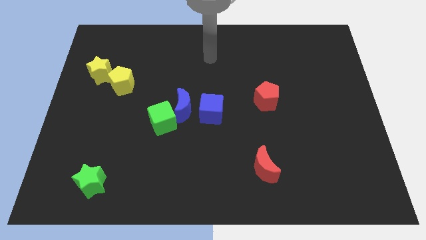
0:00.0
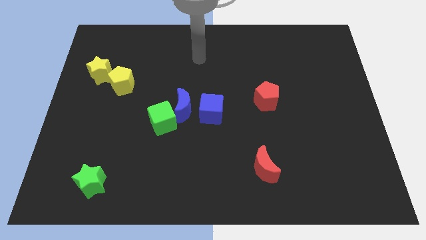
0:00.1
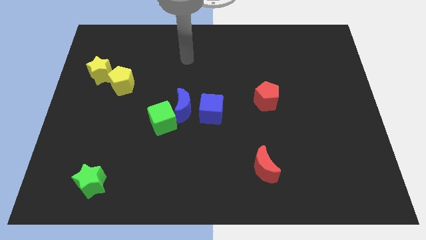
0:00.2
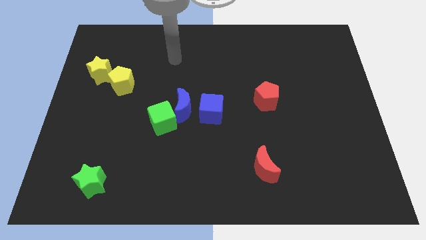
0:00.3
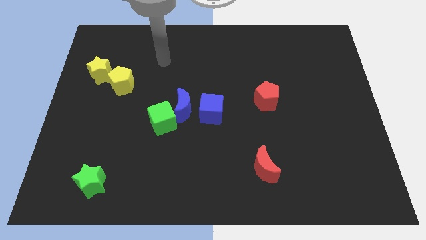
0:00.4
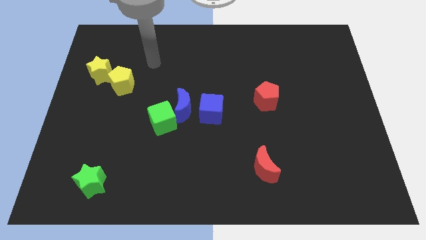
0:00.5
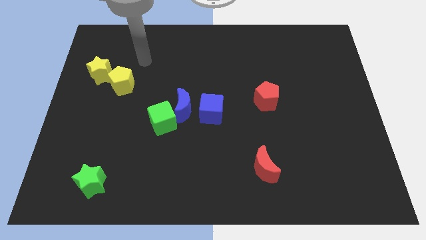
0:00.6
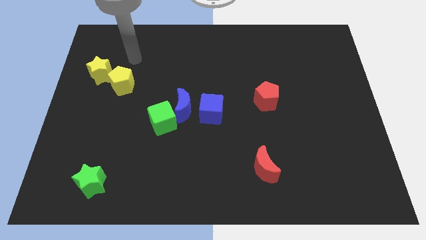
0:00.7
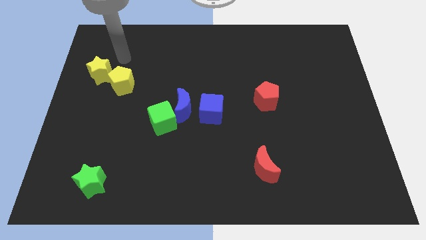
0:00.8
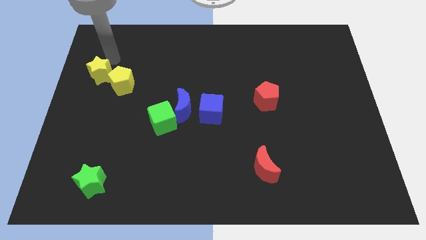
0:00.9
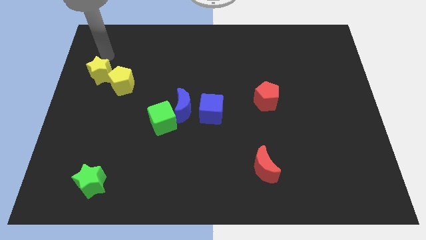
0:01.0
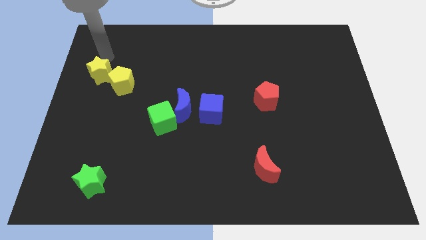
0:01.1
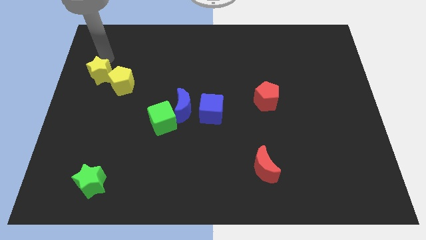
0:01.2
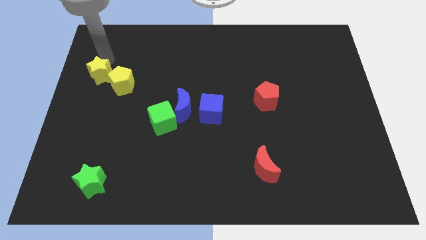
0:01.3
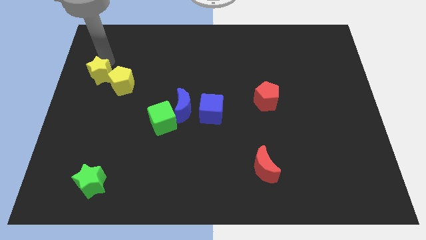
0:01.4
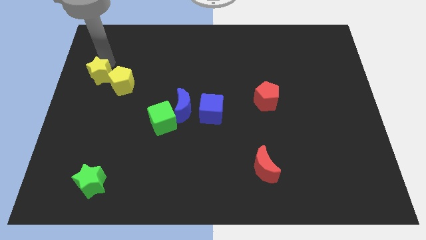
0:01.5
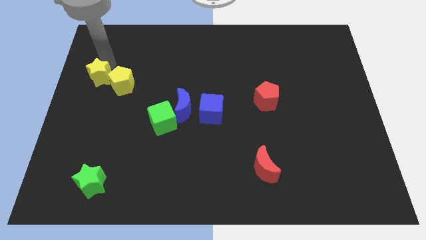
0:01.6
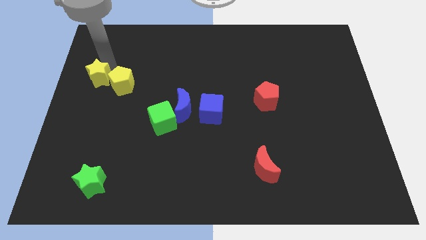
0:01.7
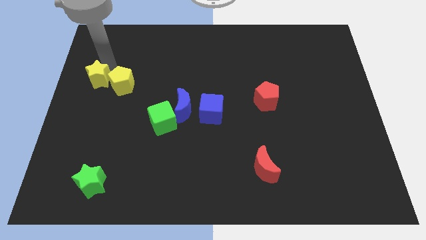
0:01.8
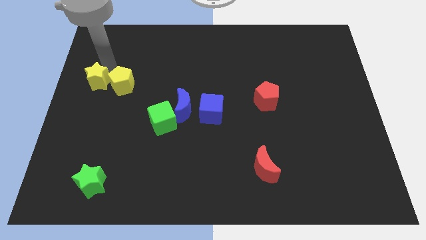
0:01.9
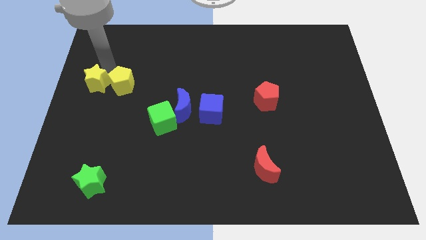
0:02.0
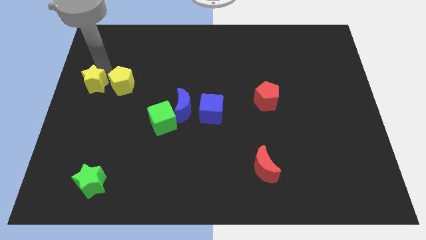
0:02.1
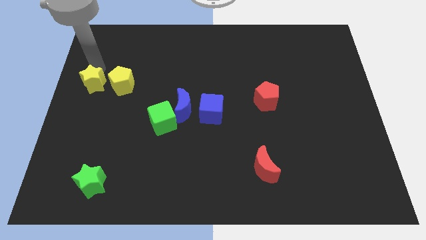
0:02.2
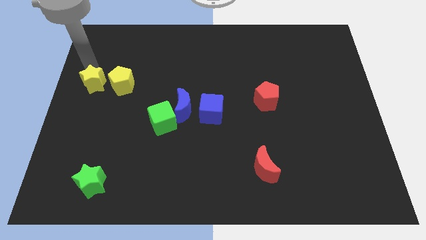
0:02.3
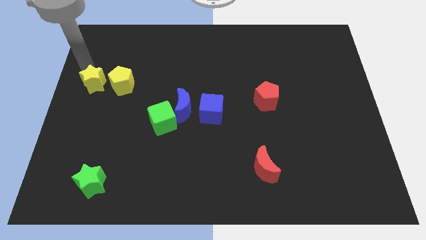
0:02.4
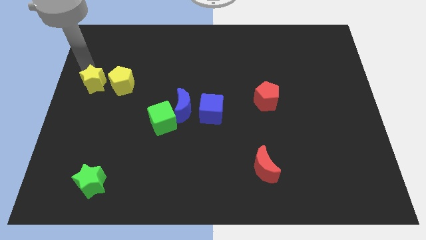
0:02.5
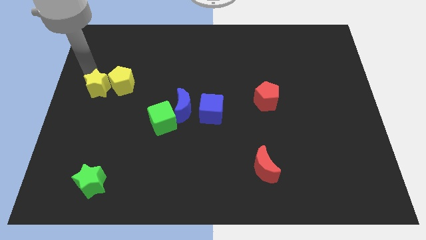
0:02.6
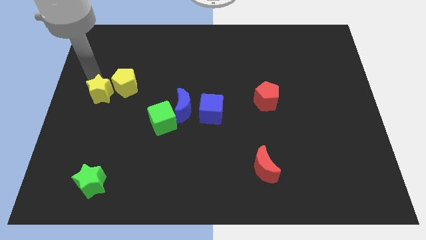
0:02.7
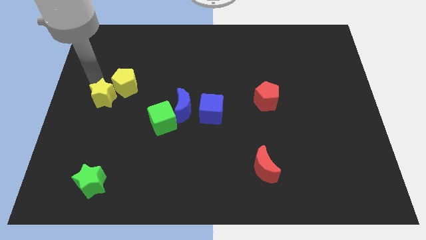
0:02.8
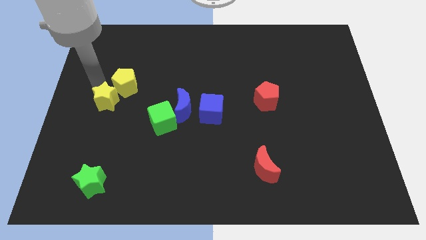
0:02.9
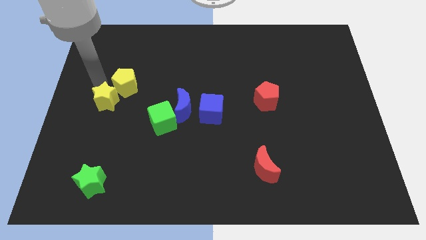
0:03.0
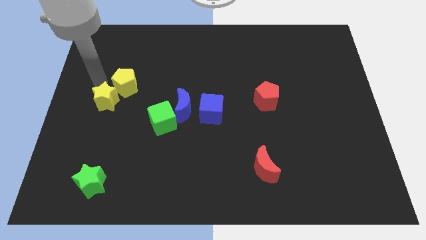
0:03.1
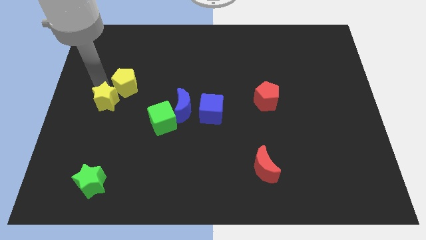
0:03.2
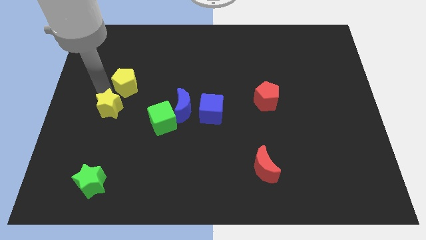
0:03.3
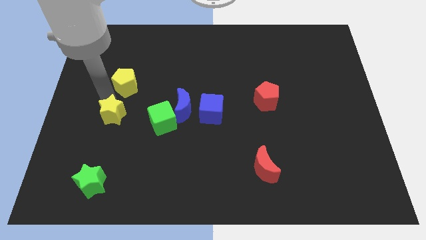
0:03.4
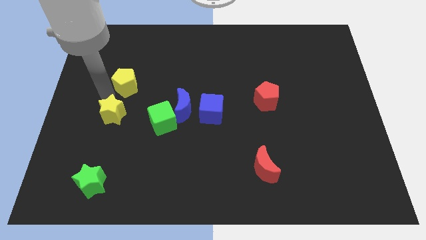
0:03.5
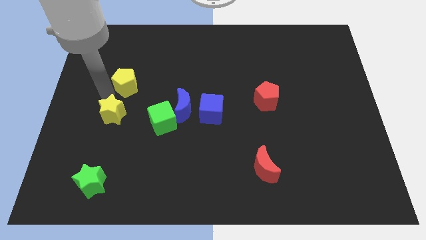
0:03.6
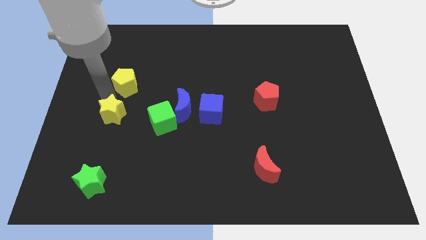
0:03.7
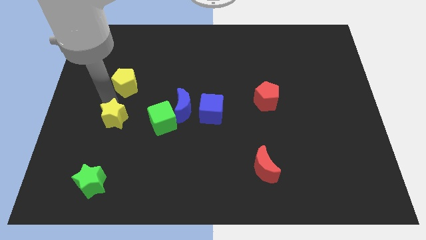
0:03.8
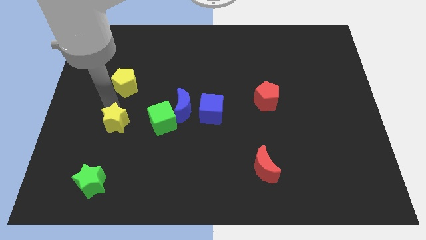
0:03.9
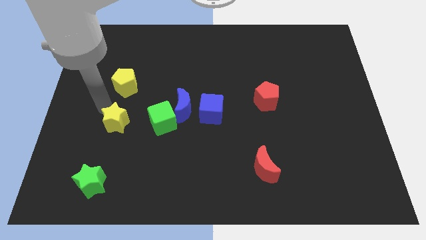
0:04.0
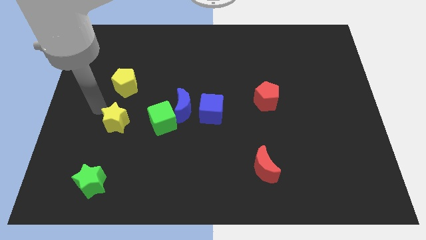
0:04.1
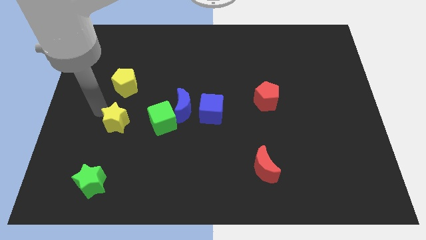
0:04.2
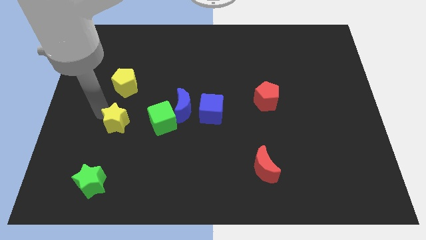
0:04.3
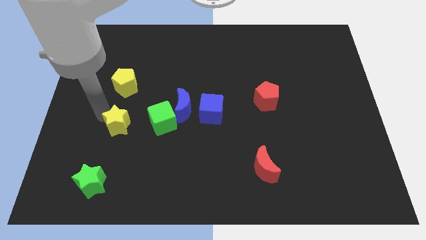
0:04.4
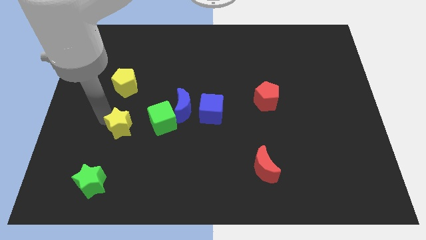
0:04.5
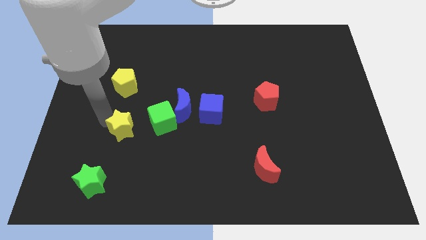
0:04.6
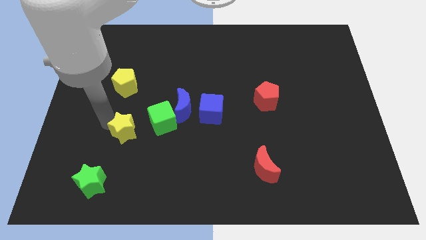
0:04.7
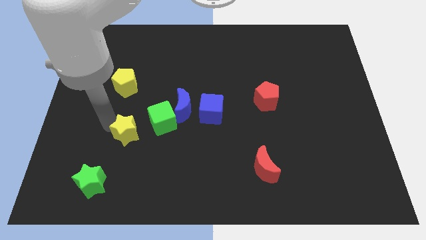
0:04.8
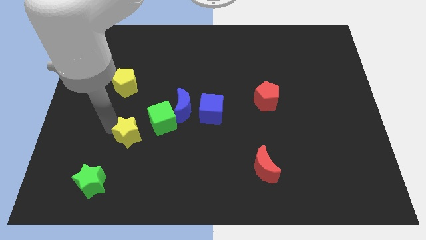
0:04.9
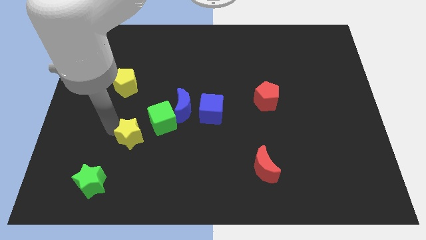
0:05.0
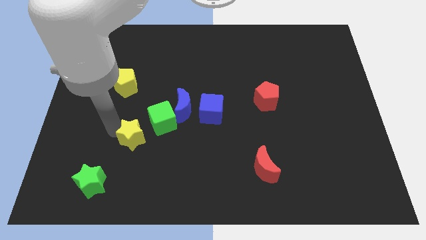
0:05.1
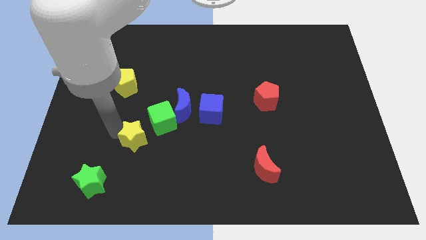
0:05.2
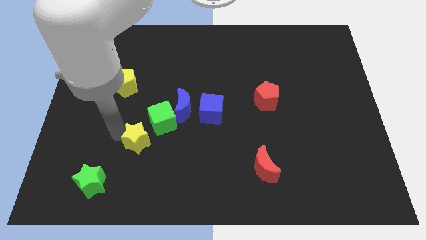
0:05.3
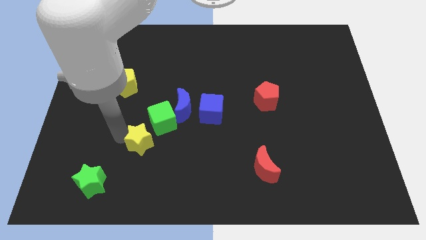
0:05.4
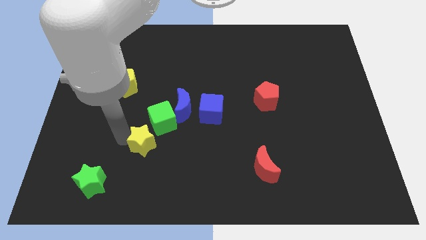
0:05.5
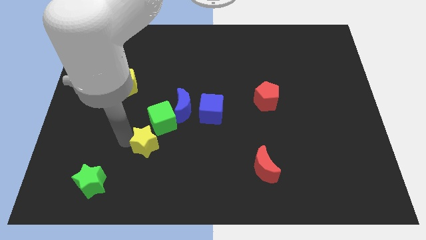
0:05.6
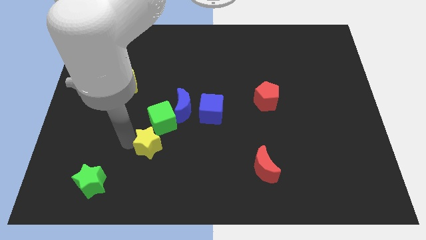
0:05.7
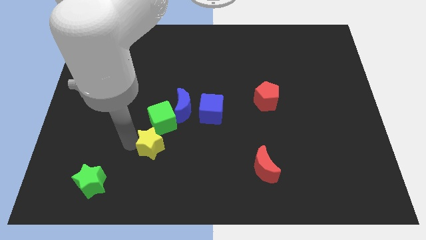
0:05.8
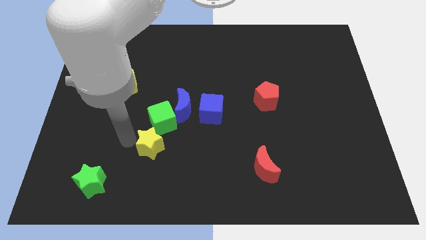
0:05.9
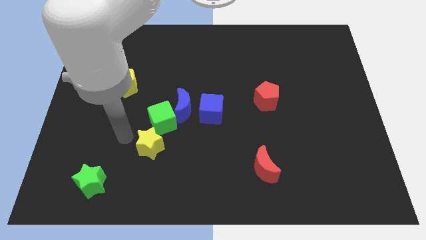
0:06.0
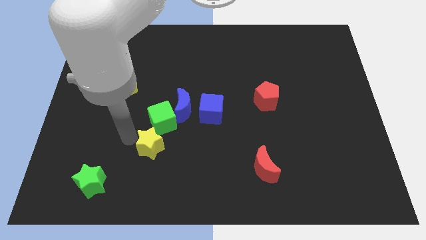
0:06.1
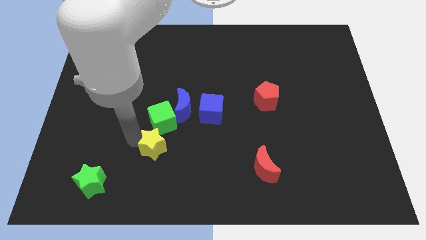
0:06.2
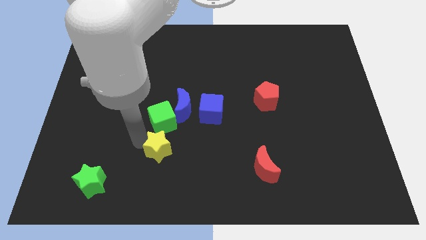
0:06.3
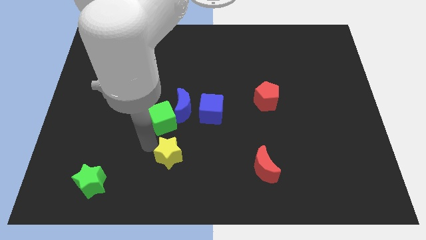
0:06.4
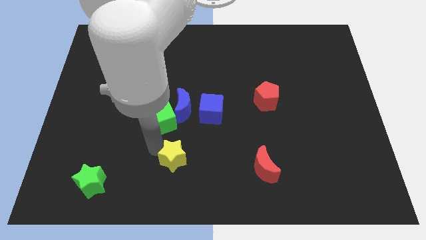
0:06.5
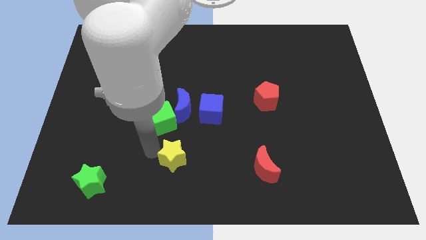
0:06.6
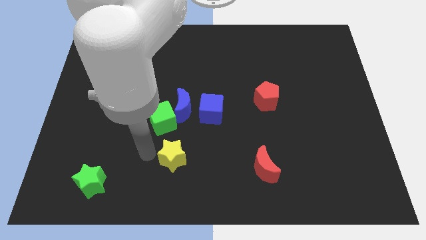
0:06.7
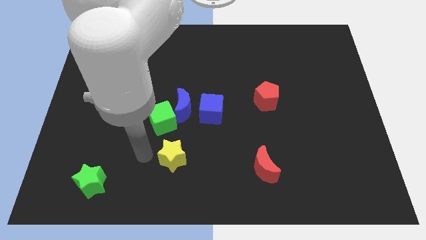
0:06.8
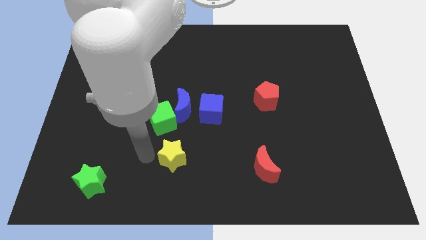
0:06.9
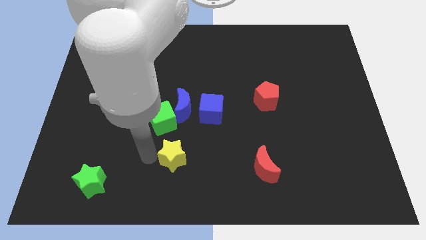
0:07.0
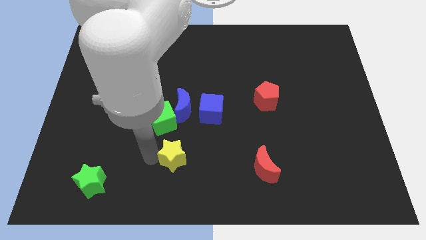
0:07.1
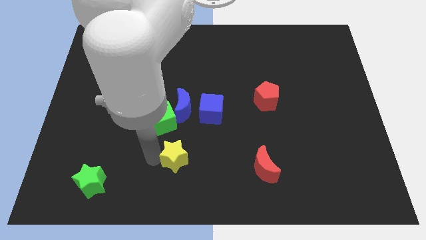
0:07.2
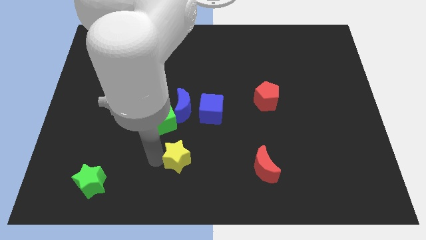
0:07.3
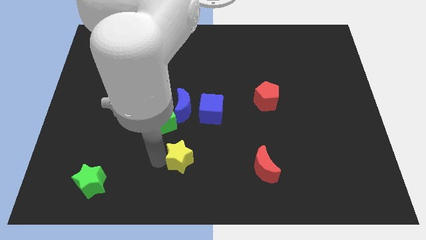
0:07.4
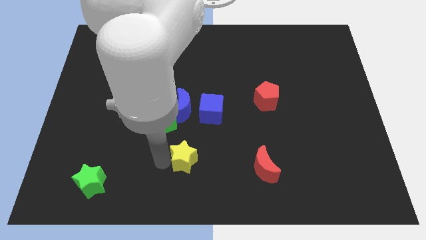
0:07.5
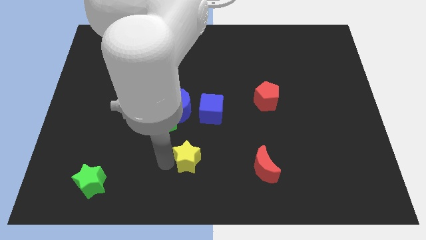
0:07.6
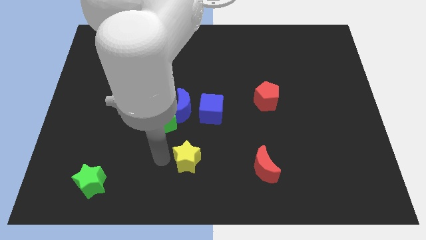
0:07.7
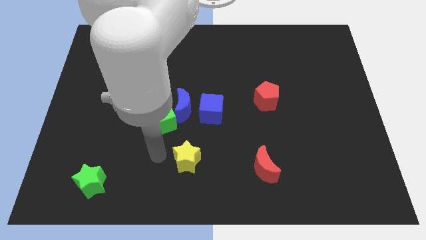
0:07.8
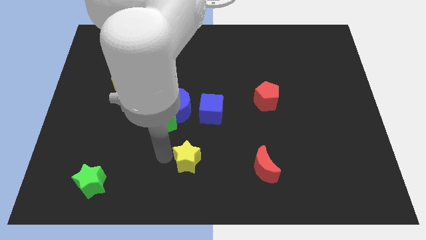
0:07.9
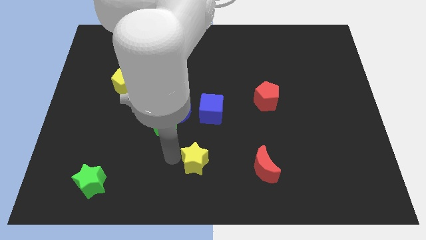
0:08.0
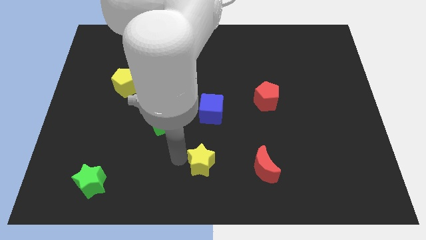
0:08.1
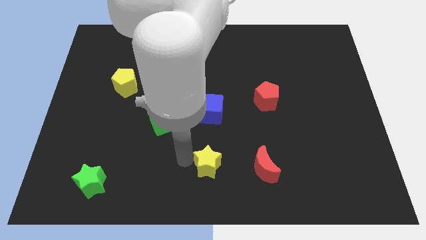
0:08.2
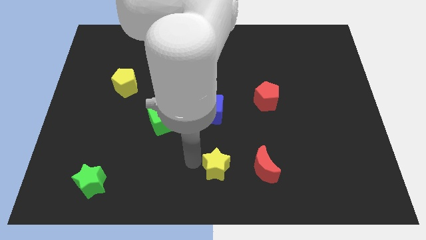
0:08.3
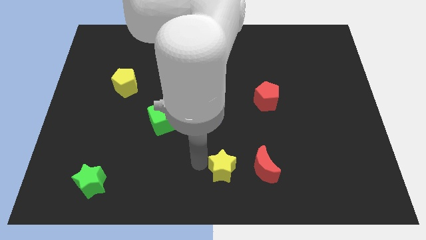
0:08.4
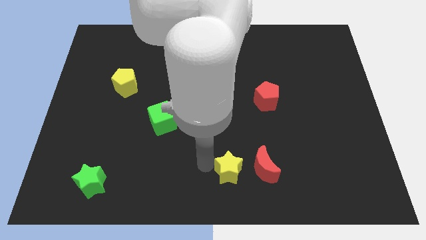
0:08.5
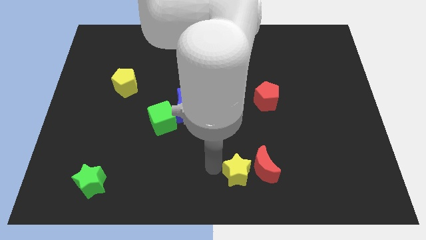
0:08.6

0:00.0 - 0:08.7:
move the yellow star close to the red moon
